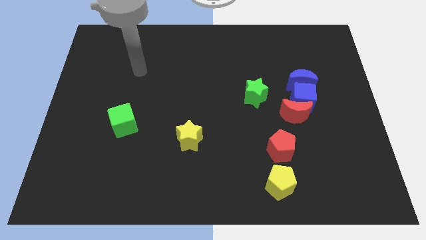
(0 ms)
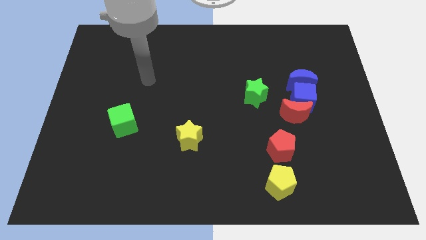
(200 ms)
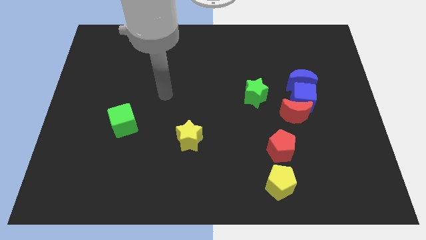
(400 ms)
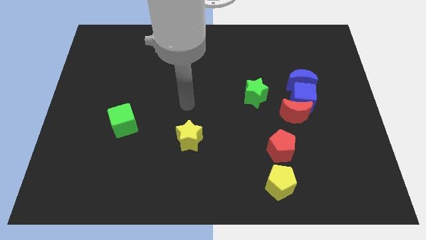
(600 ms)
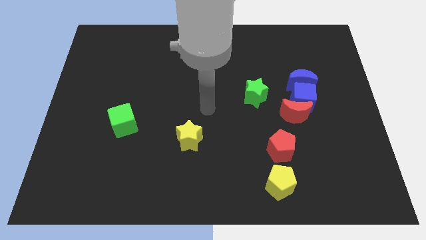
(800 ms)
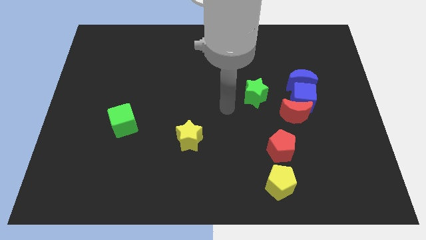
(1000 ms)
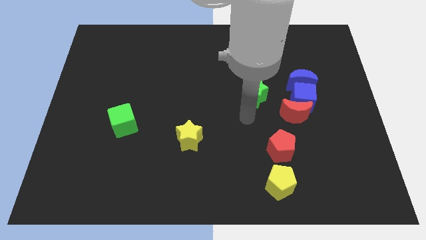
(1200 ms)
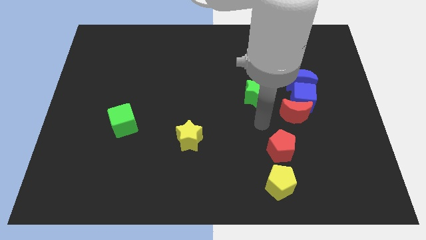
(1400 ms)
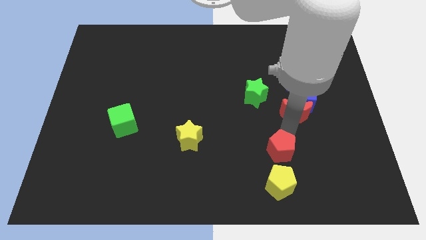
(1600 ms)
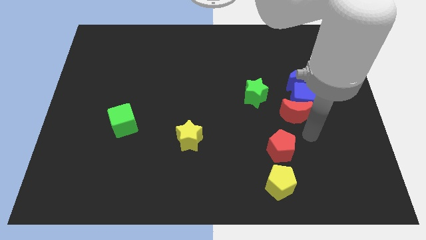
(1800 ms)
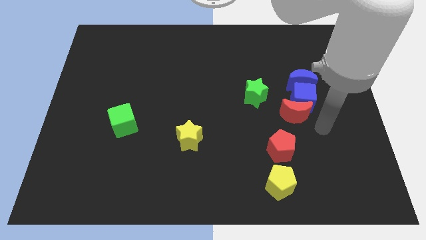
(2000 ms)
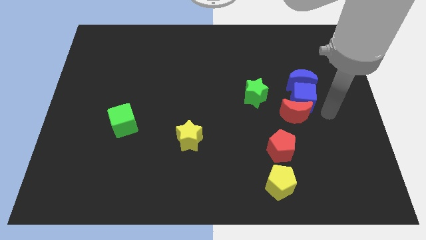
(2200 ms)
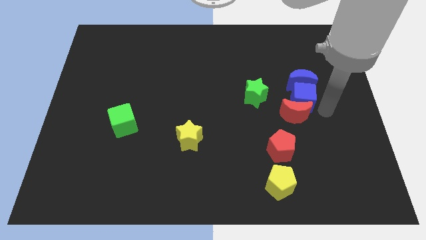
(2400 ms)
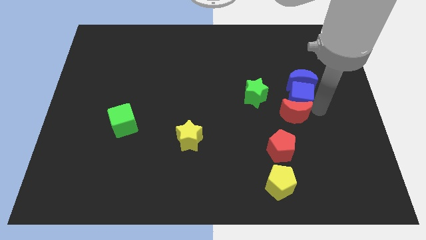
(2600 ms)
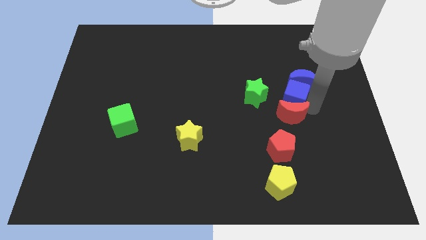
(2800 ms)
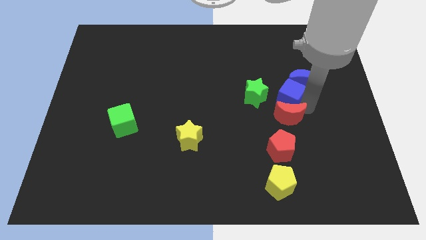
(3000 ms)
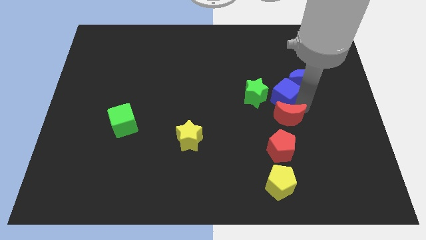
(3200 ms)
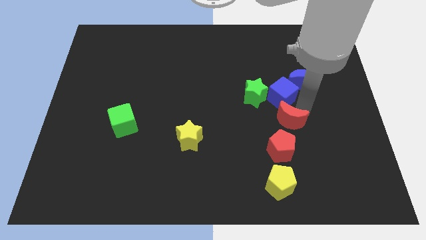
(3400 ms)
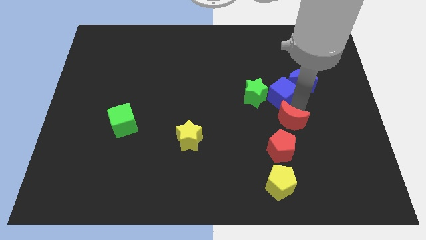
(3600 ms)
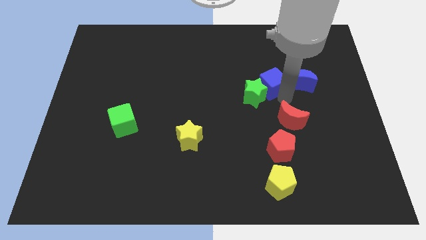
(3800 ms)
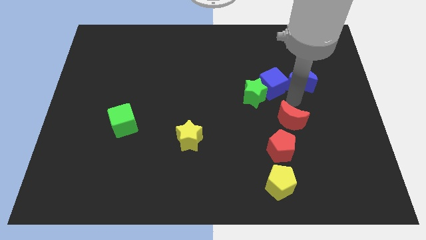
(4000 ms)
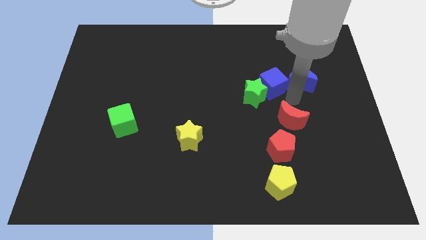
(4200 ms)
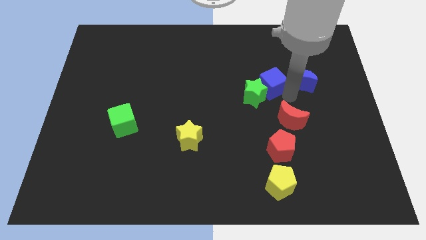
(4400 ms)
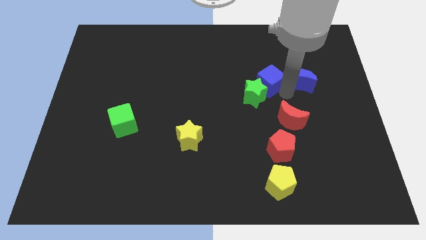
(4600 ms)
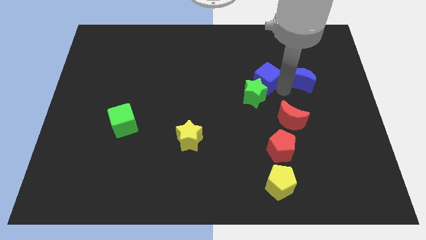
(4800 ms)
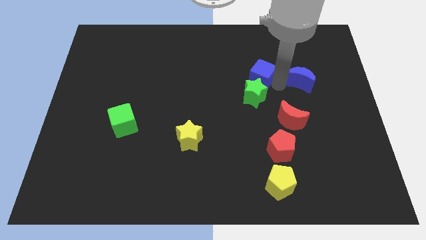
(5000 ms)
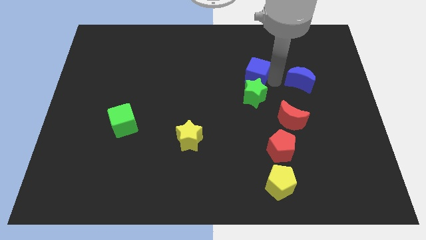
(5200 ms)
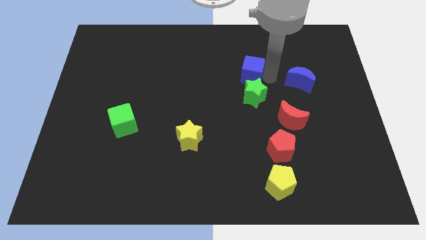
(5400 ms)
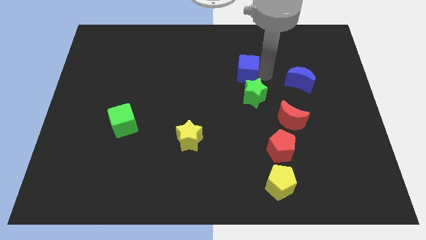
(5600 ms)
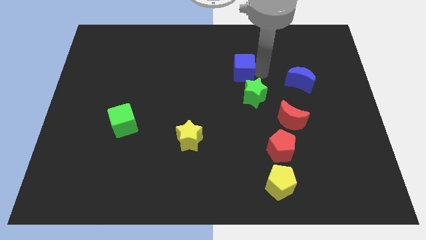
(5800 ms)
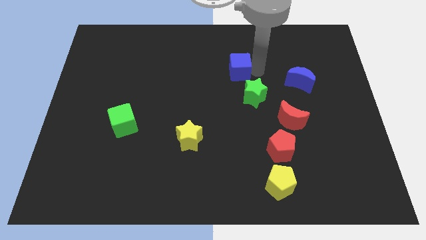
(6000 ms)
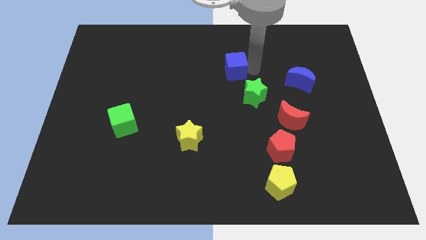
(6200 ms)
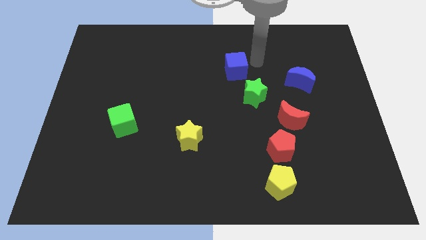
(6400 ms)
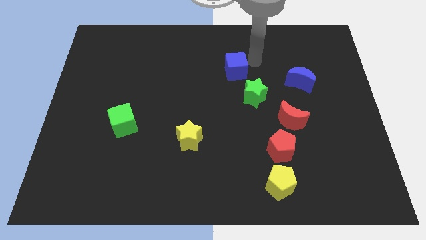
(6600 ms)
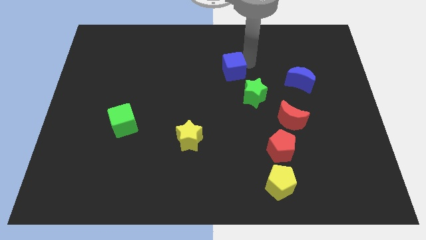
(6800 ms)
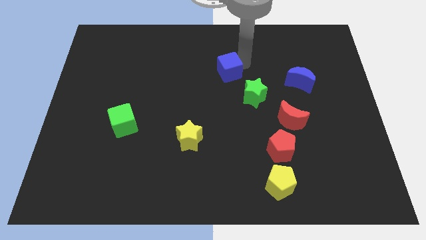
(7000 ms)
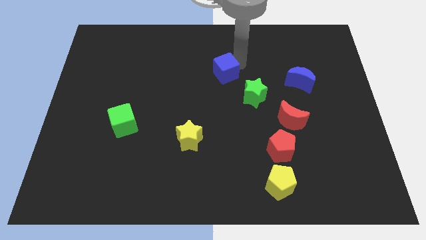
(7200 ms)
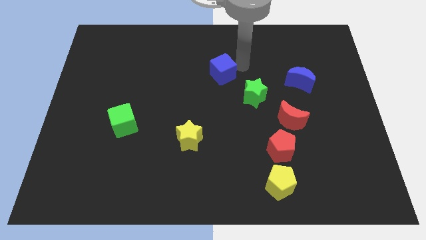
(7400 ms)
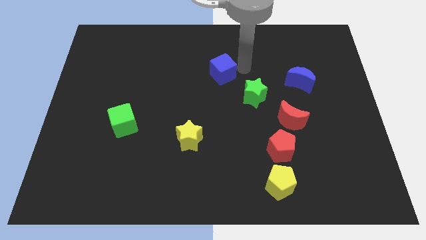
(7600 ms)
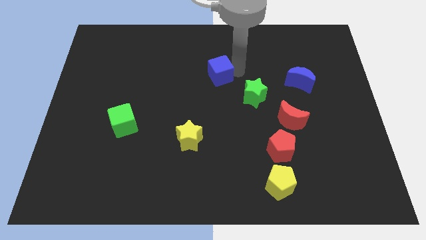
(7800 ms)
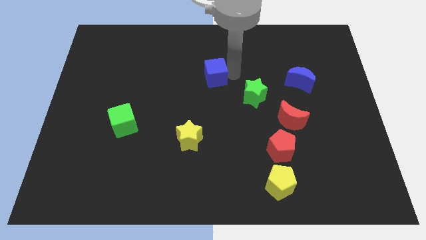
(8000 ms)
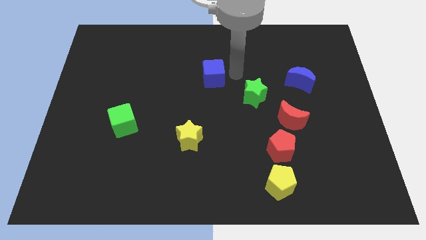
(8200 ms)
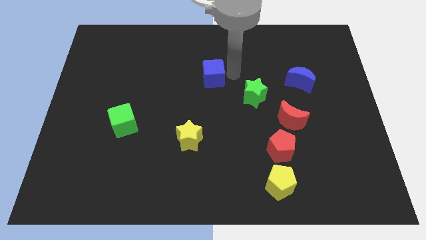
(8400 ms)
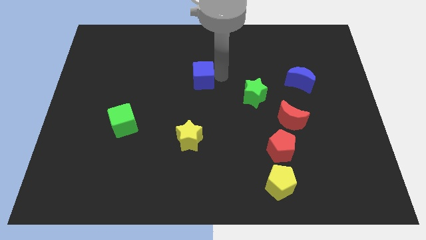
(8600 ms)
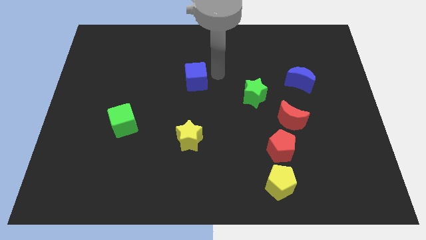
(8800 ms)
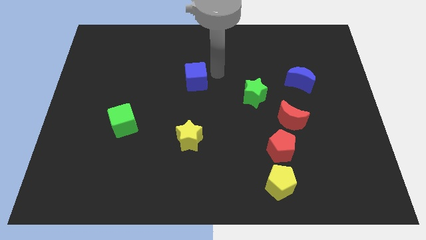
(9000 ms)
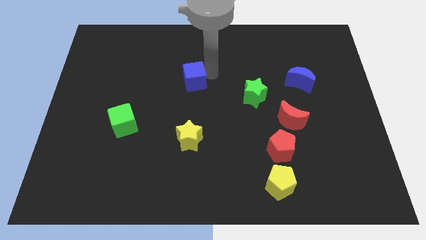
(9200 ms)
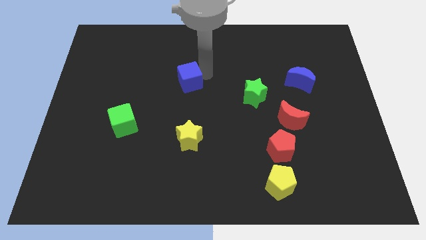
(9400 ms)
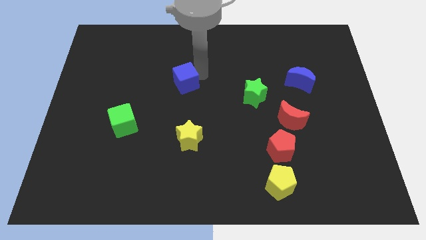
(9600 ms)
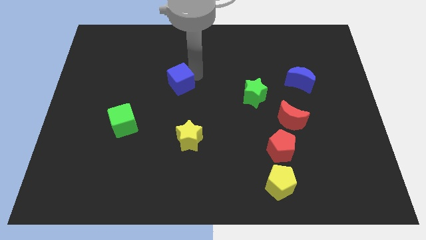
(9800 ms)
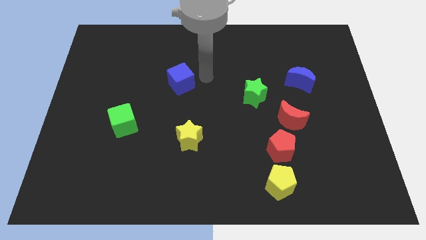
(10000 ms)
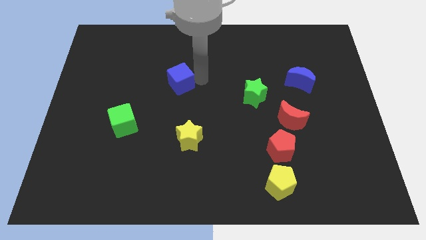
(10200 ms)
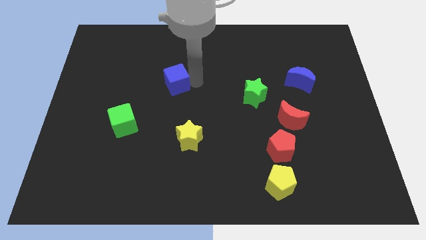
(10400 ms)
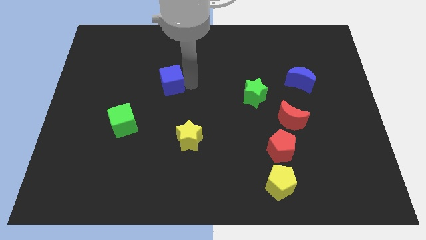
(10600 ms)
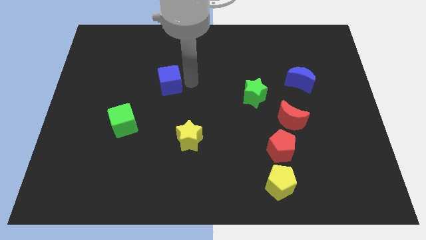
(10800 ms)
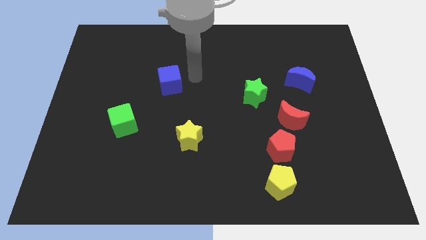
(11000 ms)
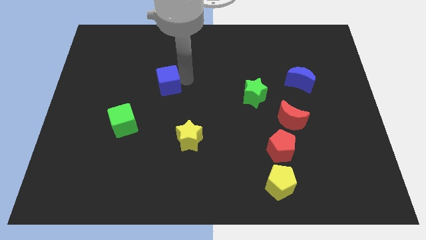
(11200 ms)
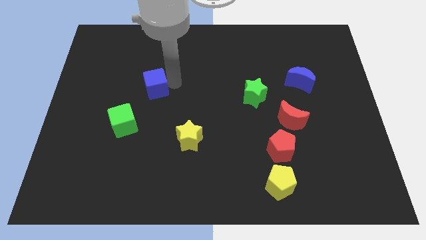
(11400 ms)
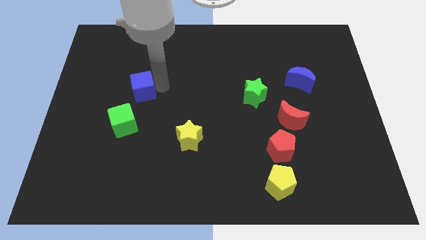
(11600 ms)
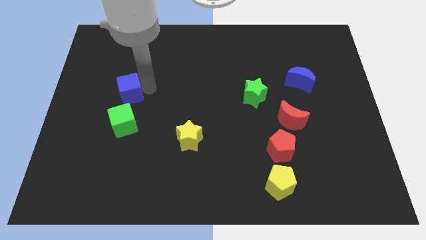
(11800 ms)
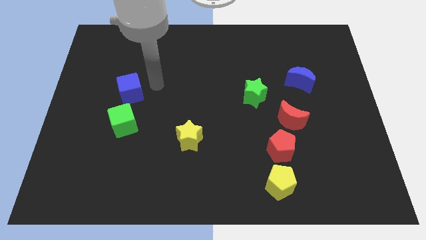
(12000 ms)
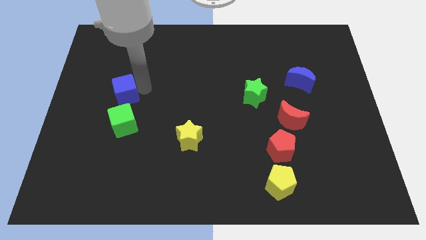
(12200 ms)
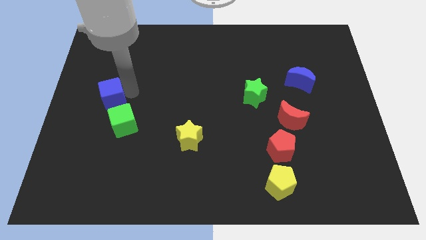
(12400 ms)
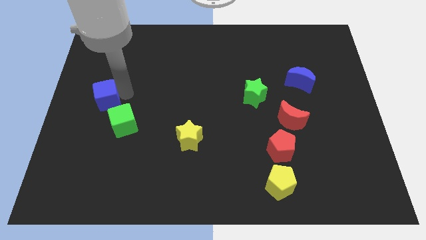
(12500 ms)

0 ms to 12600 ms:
push the blue cube to the left side of the board
